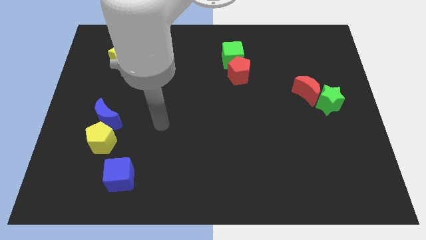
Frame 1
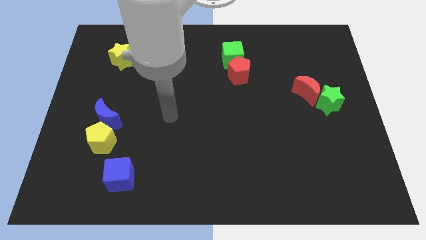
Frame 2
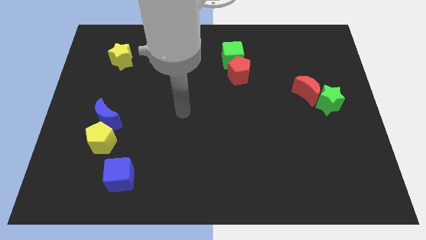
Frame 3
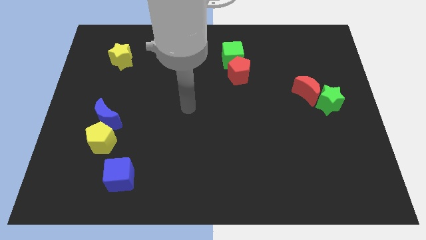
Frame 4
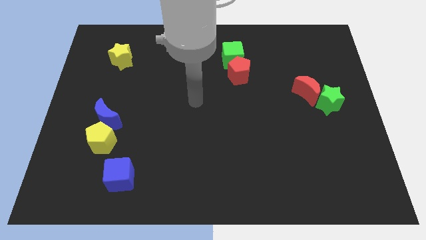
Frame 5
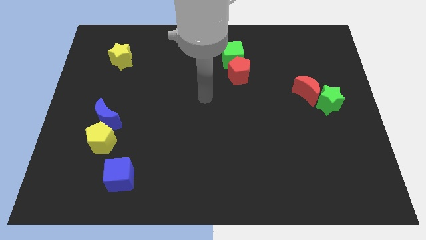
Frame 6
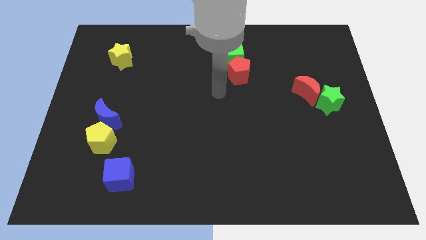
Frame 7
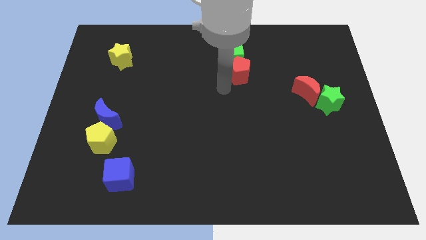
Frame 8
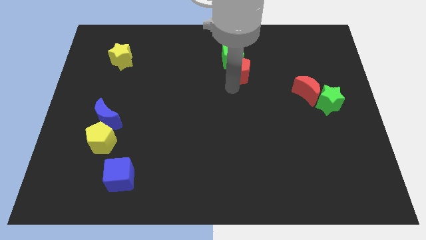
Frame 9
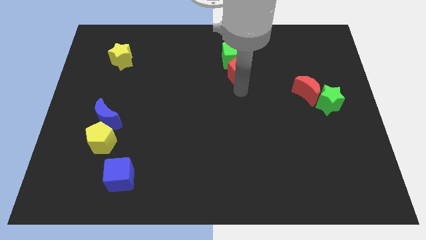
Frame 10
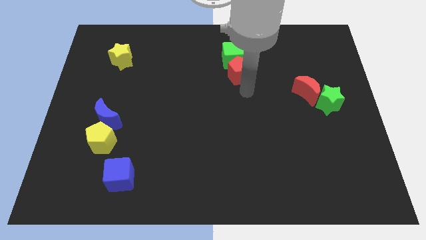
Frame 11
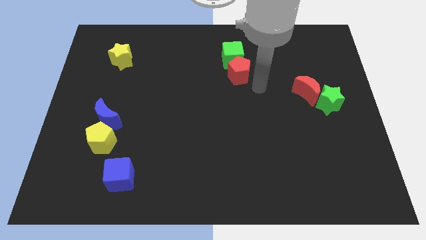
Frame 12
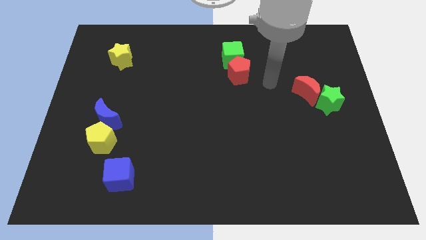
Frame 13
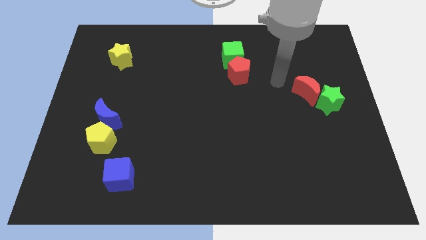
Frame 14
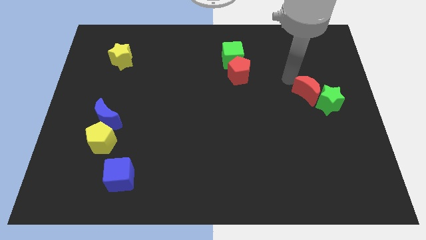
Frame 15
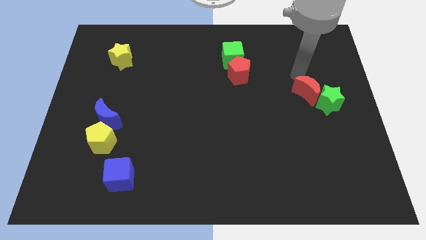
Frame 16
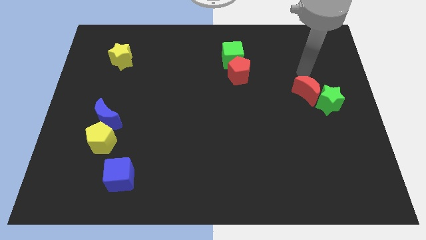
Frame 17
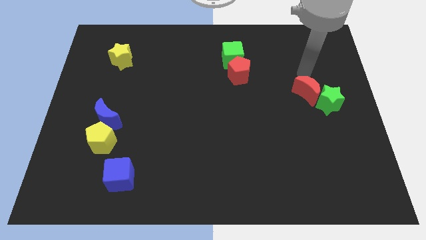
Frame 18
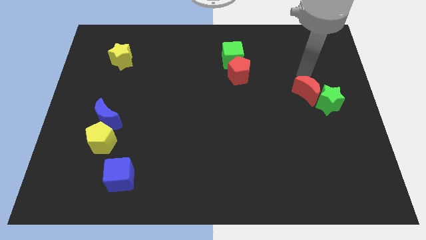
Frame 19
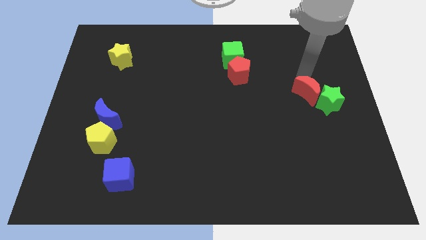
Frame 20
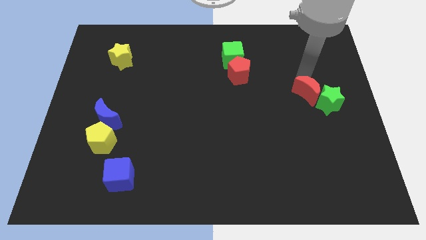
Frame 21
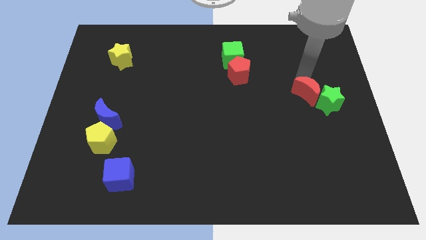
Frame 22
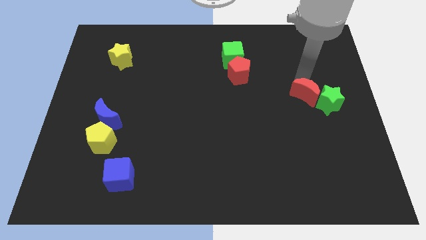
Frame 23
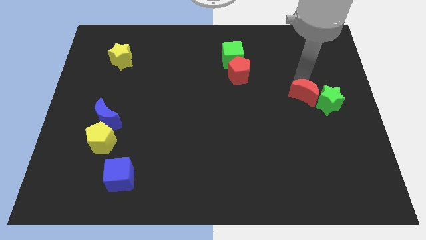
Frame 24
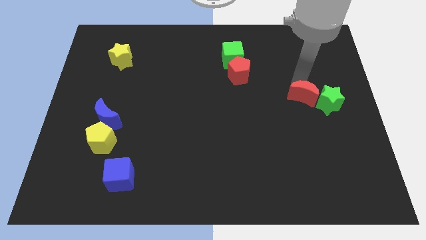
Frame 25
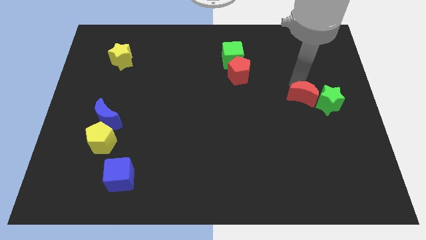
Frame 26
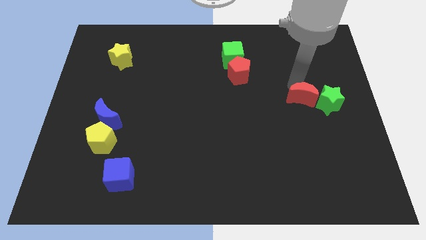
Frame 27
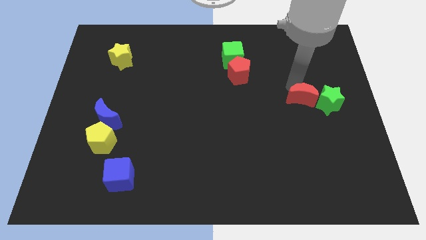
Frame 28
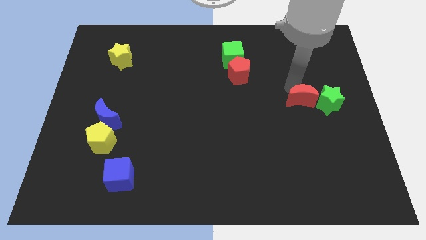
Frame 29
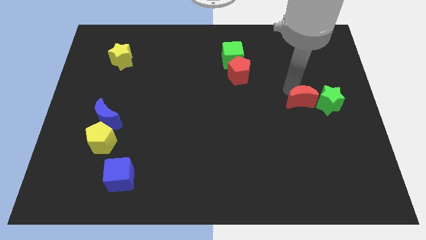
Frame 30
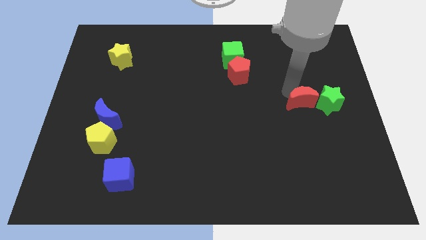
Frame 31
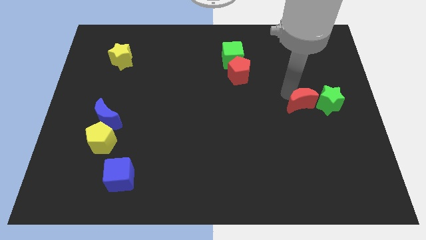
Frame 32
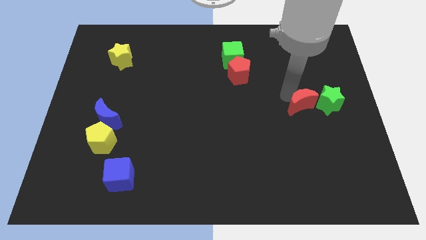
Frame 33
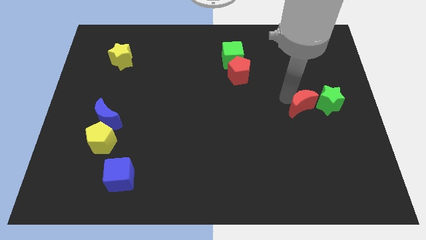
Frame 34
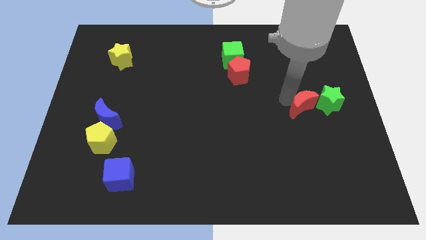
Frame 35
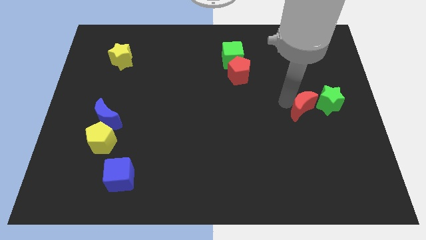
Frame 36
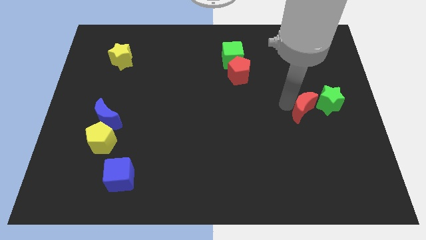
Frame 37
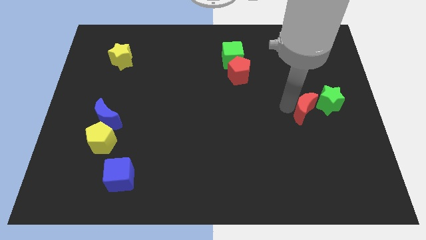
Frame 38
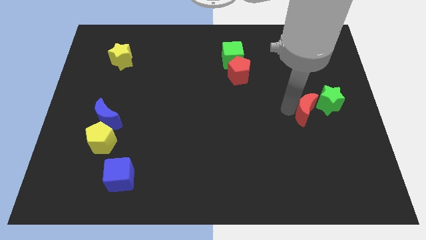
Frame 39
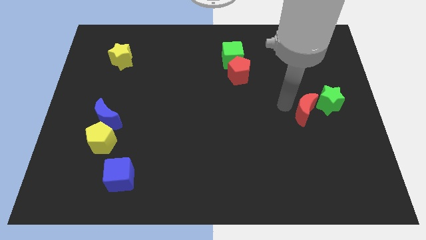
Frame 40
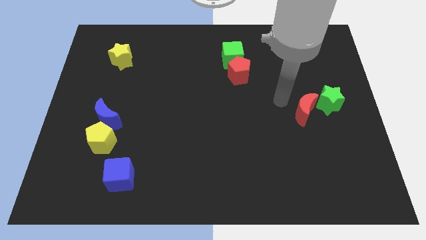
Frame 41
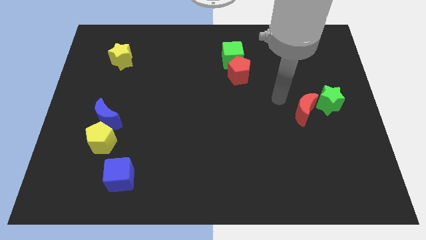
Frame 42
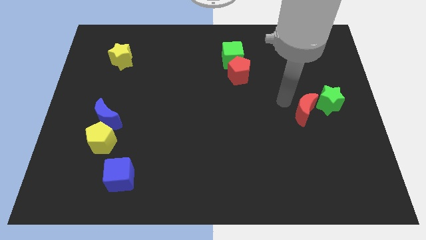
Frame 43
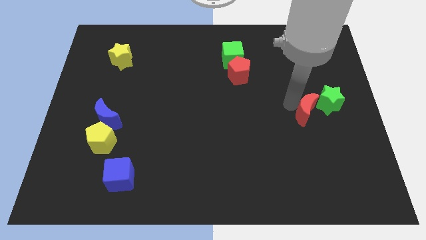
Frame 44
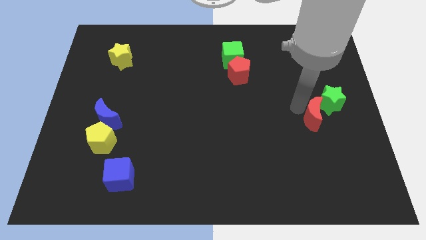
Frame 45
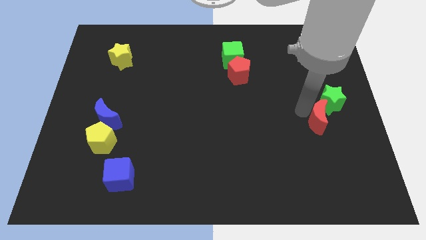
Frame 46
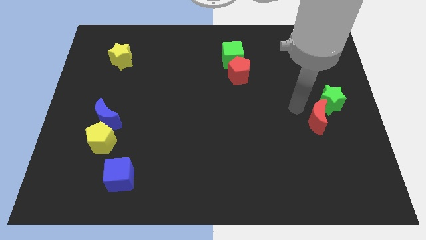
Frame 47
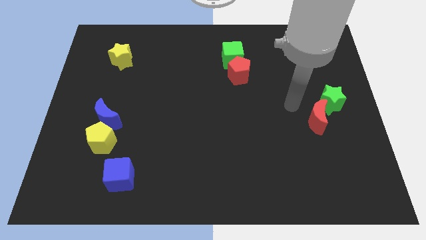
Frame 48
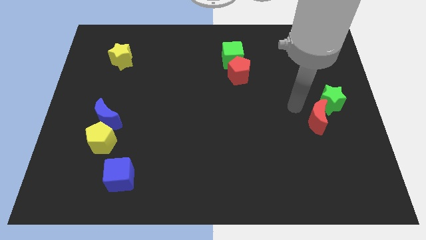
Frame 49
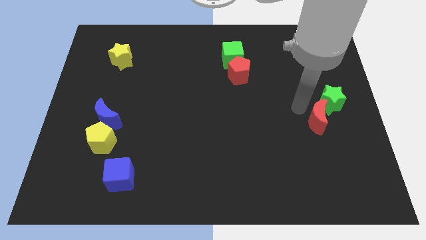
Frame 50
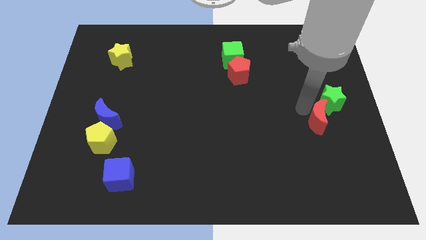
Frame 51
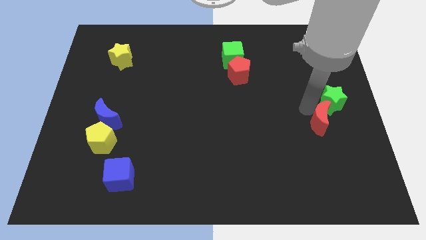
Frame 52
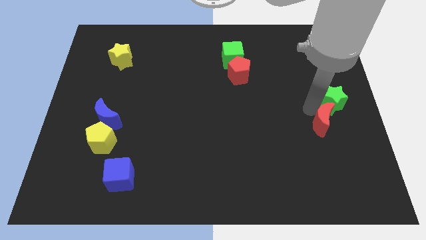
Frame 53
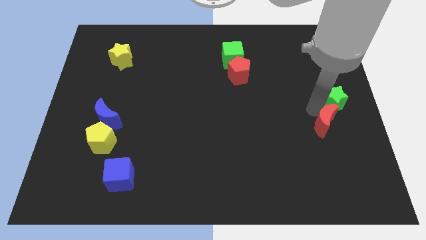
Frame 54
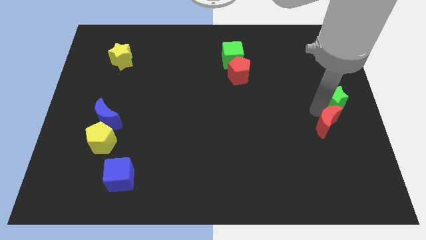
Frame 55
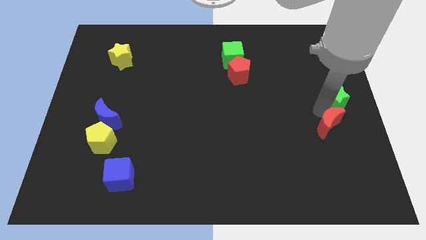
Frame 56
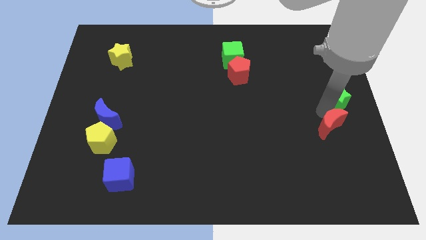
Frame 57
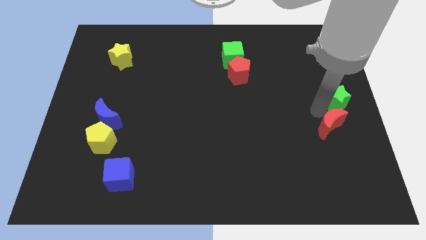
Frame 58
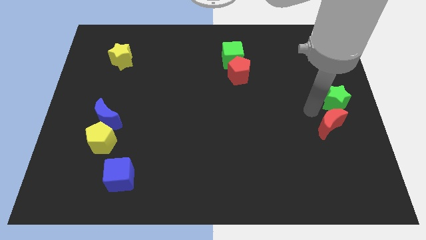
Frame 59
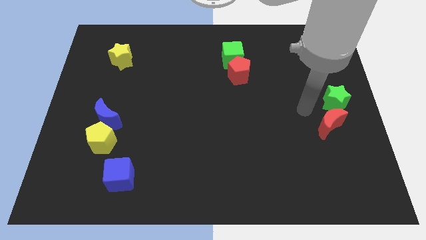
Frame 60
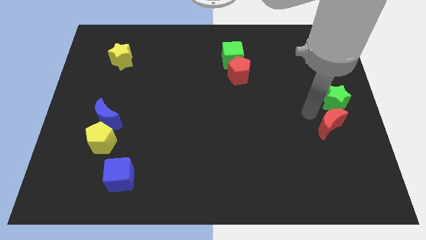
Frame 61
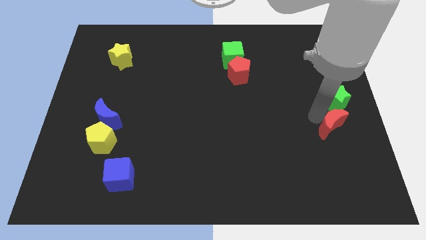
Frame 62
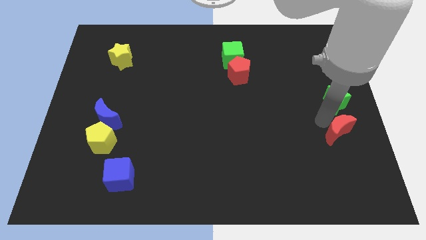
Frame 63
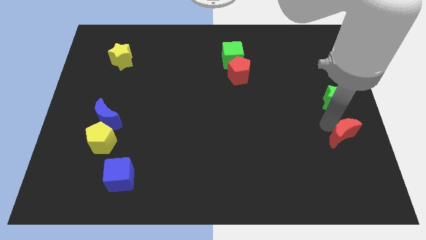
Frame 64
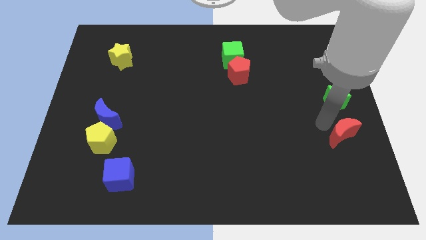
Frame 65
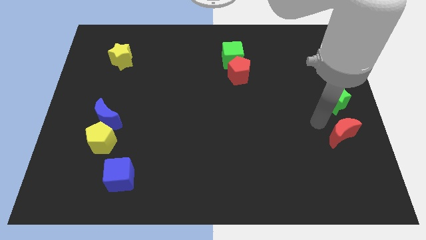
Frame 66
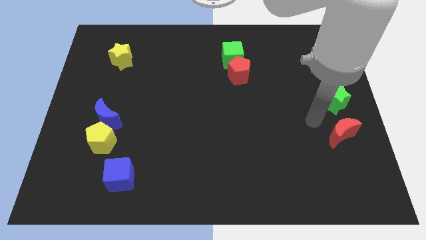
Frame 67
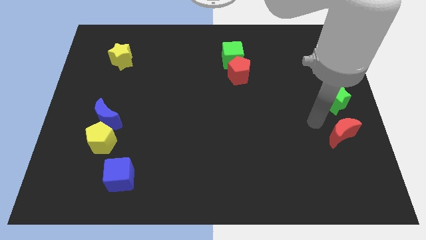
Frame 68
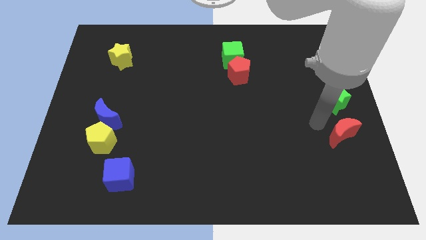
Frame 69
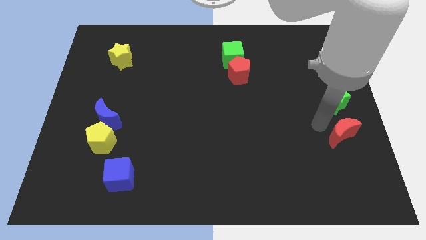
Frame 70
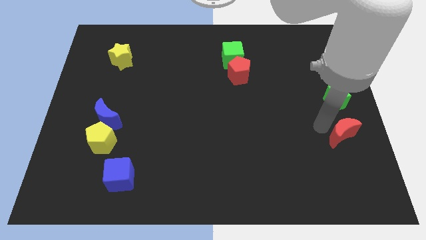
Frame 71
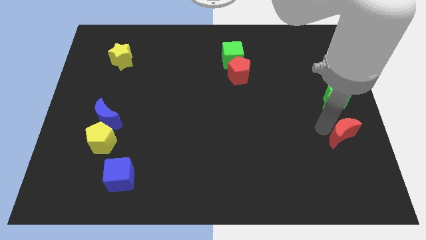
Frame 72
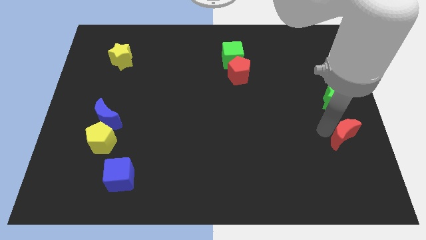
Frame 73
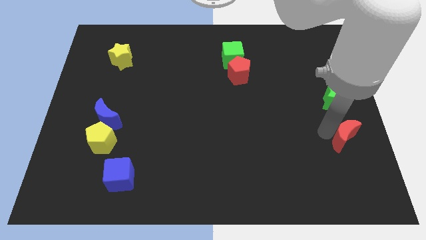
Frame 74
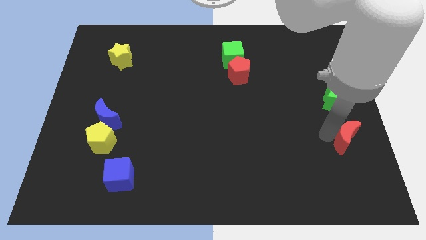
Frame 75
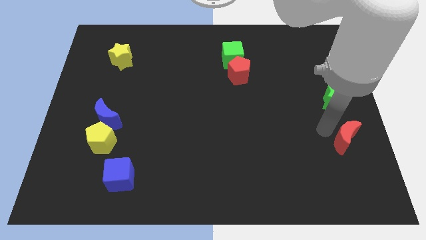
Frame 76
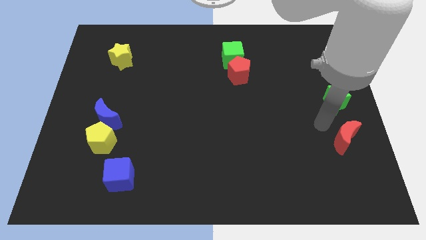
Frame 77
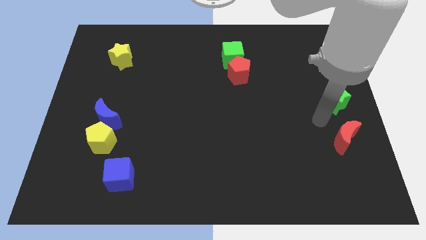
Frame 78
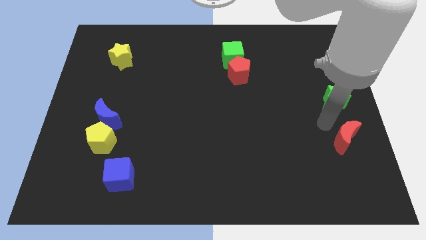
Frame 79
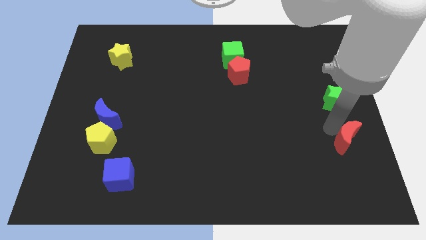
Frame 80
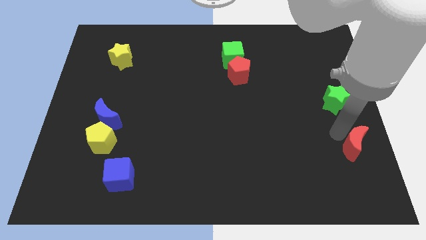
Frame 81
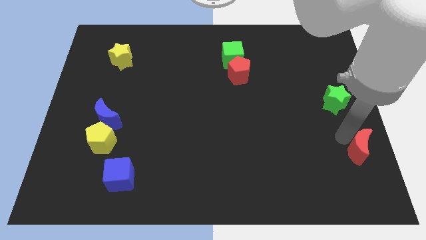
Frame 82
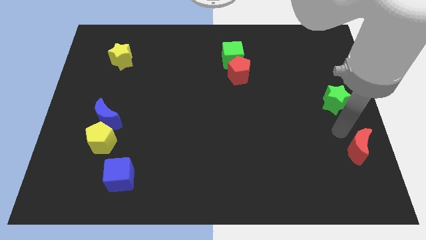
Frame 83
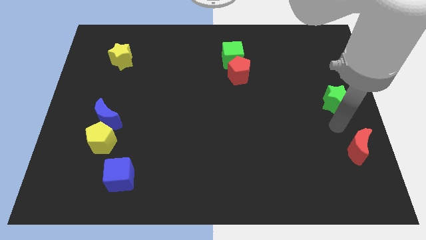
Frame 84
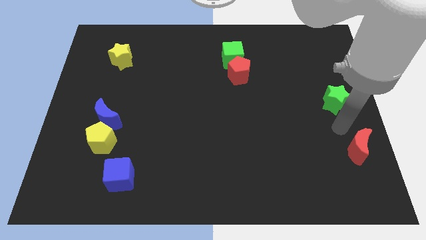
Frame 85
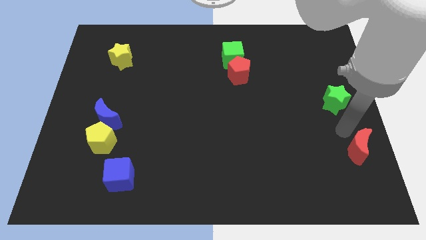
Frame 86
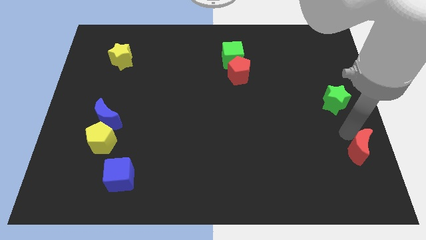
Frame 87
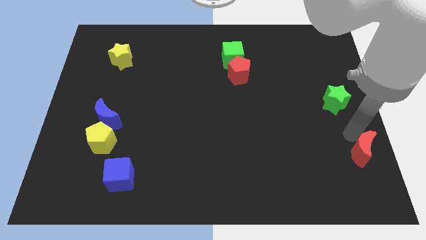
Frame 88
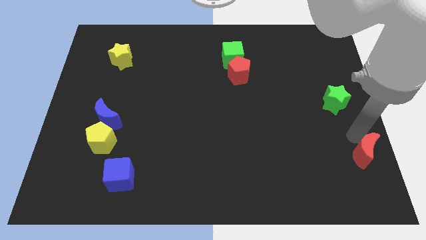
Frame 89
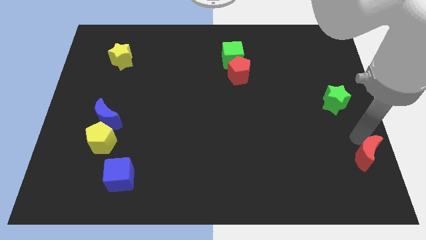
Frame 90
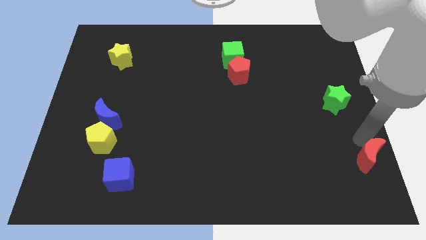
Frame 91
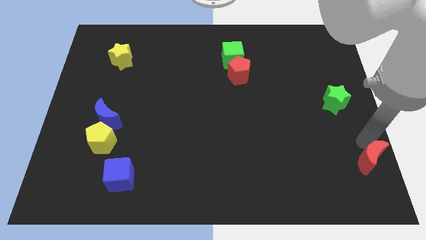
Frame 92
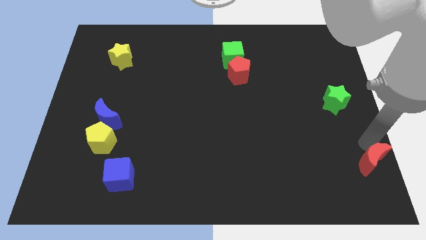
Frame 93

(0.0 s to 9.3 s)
push the red moon to the bottom right corner
